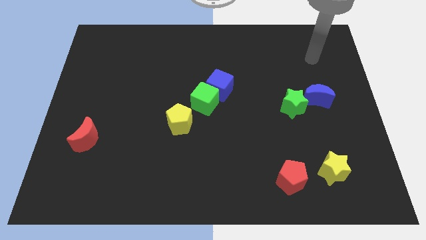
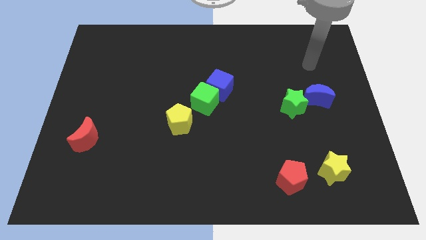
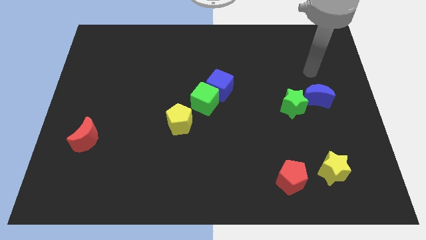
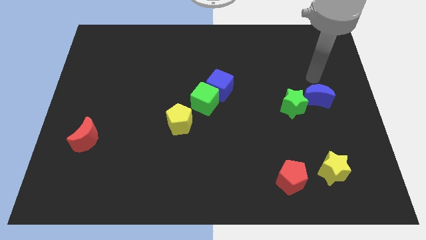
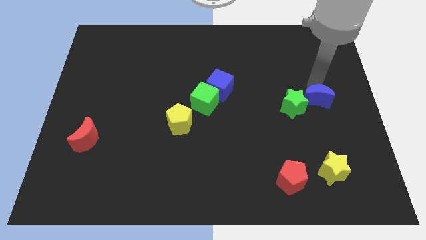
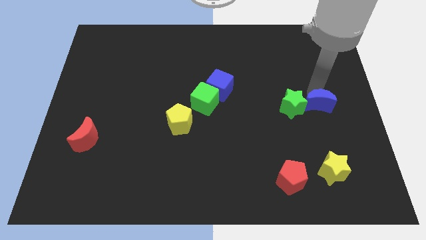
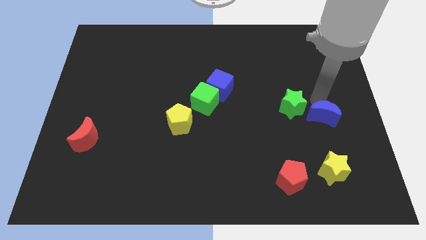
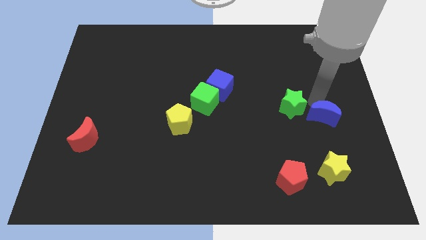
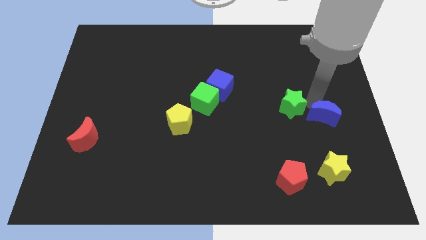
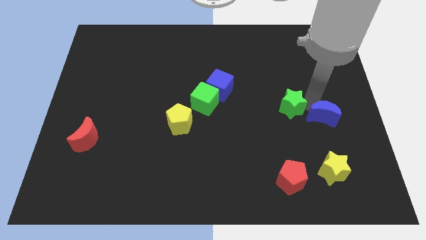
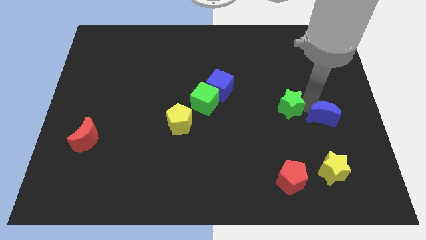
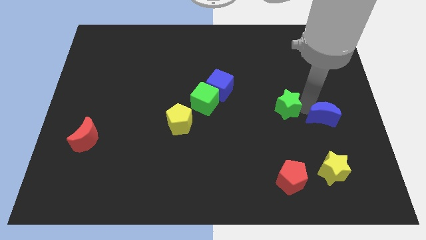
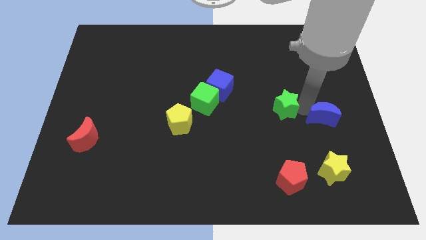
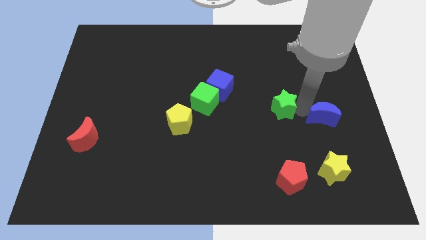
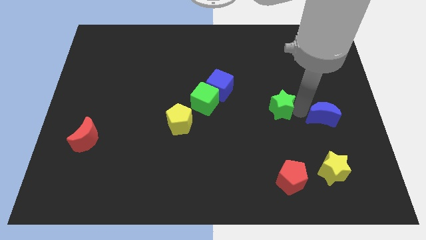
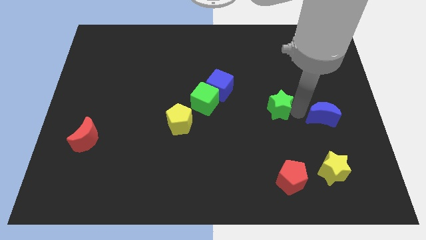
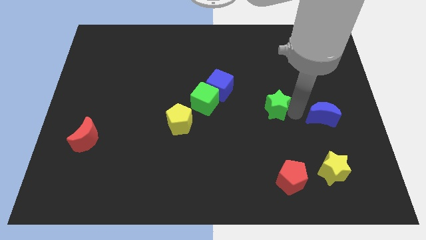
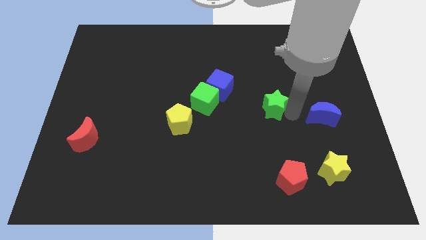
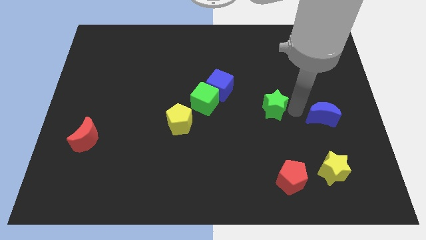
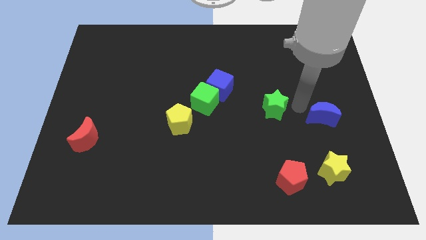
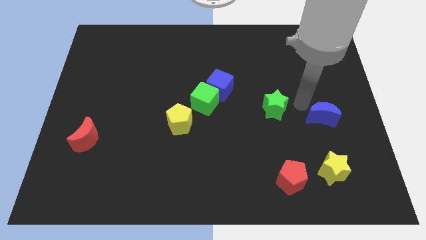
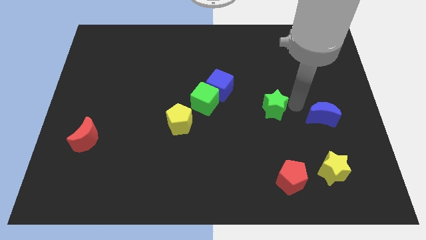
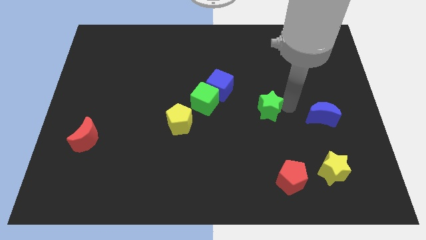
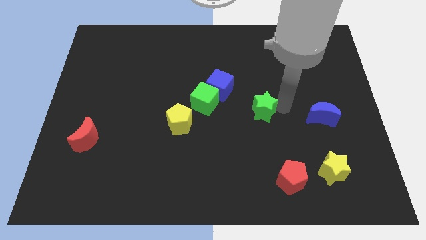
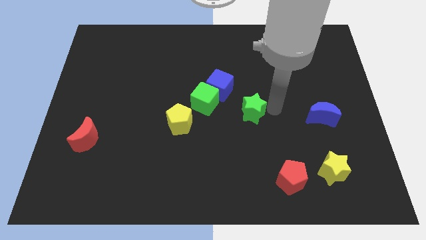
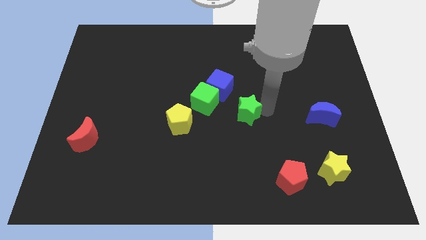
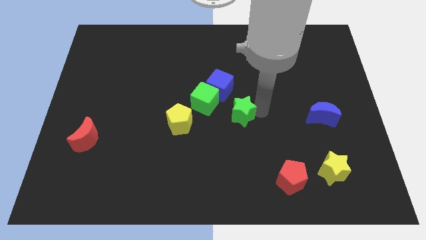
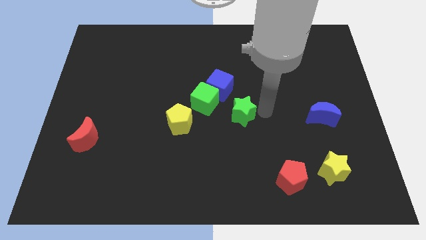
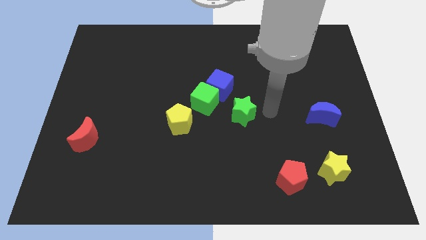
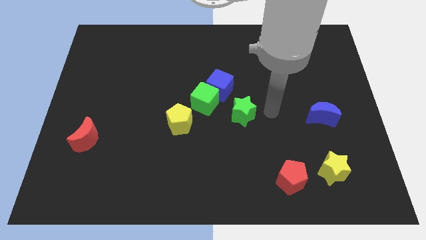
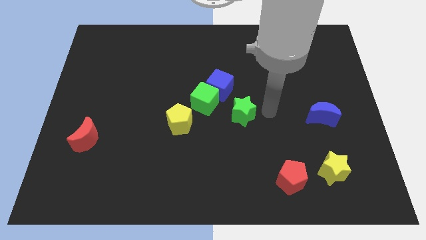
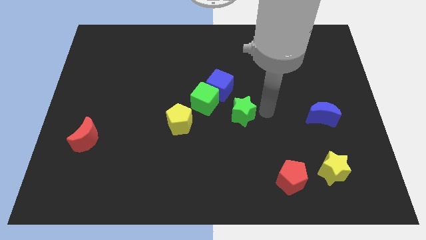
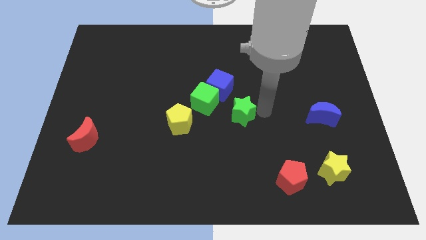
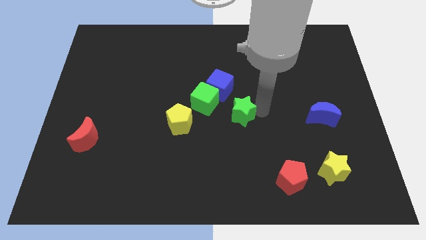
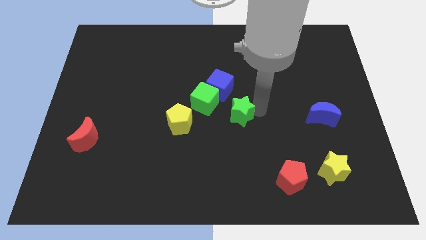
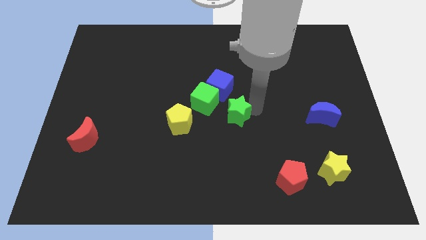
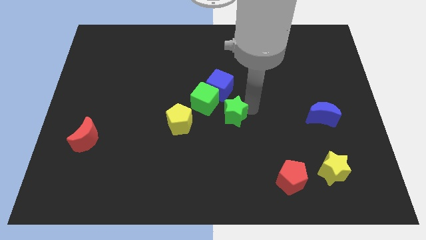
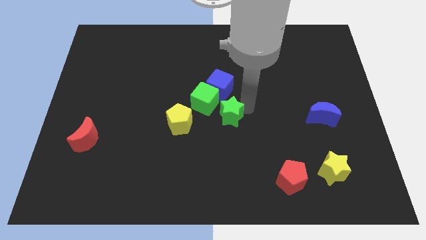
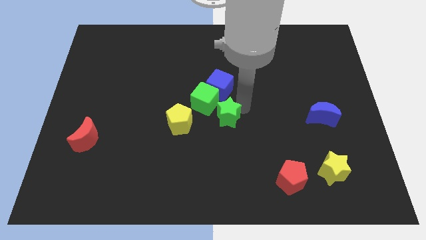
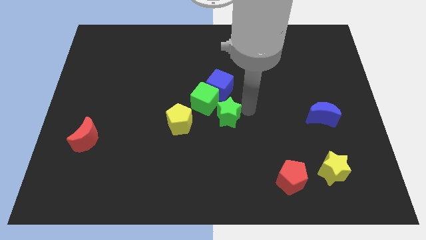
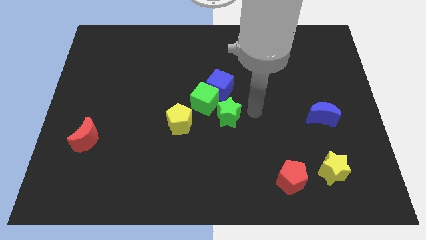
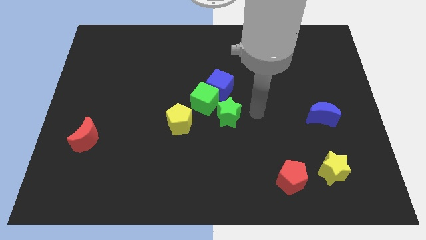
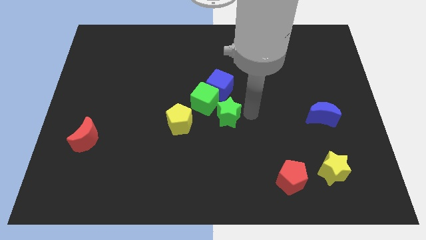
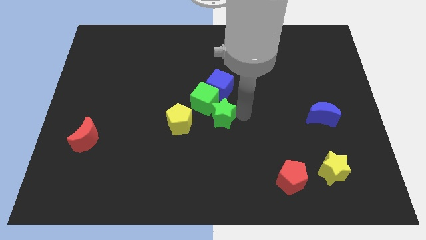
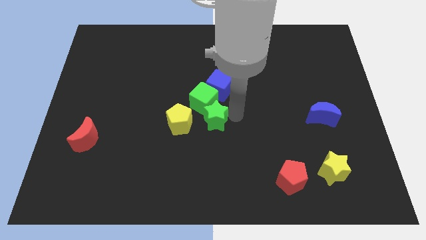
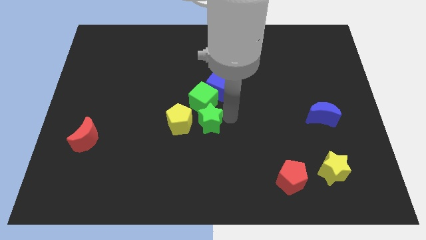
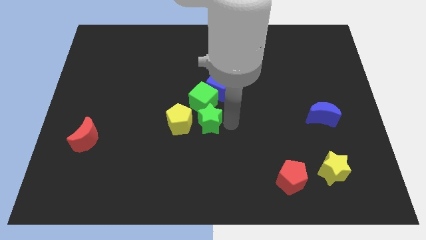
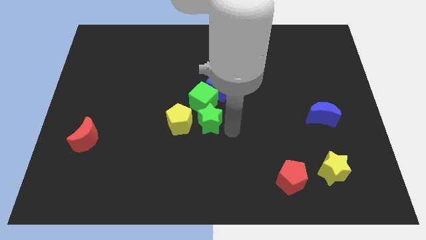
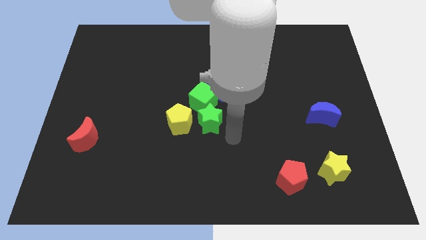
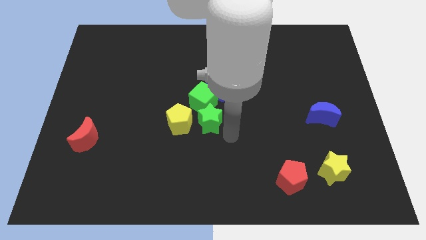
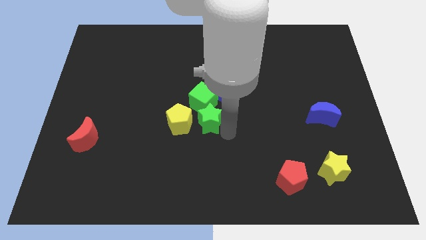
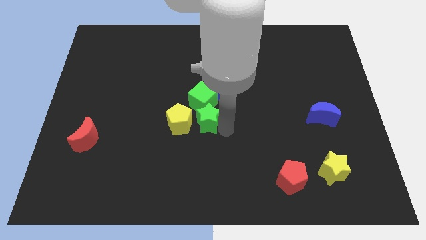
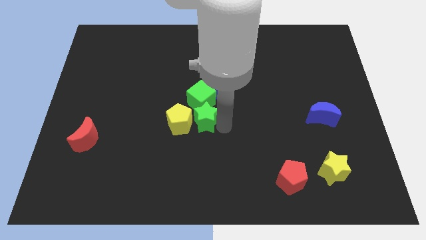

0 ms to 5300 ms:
move the green star left

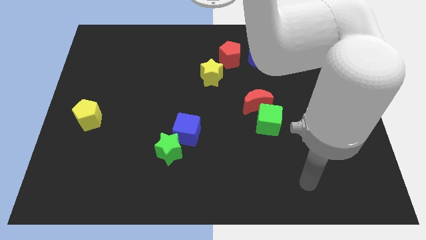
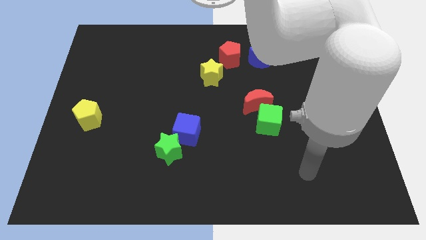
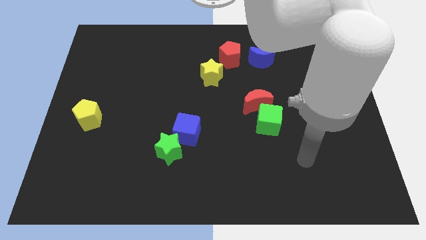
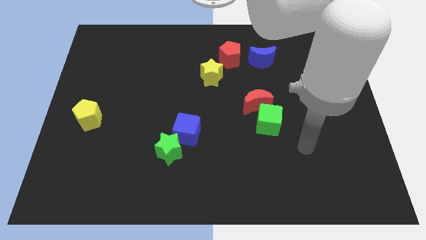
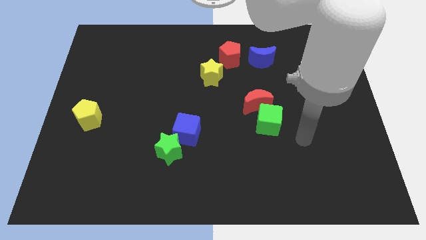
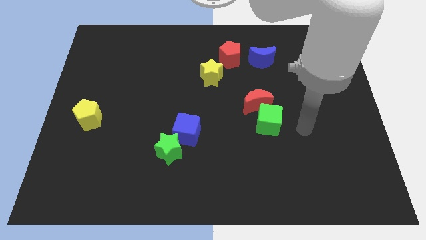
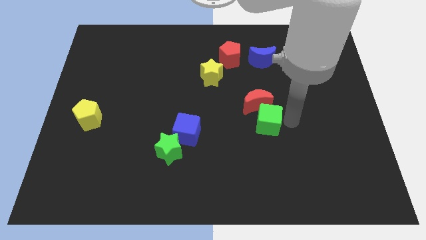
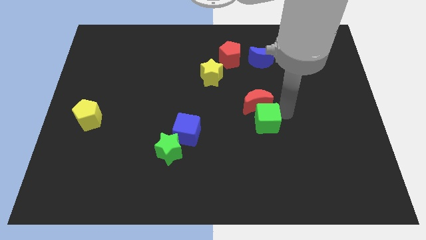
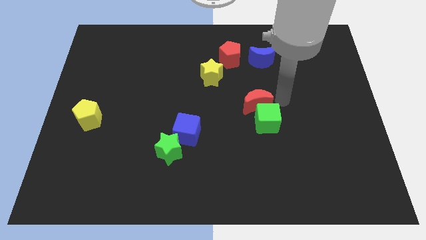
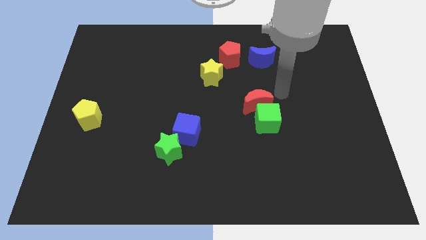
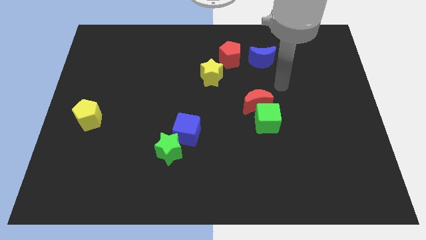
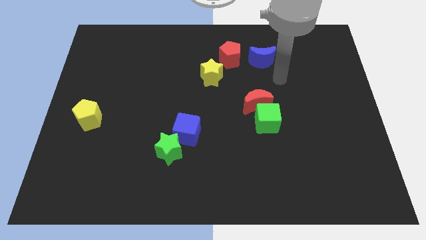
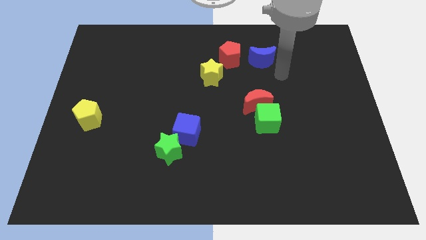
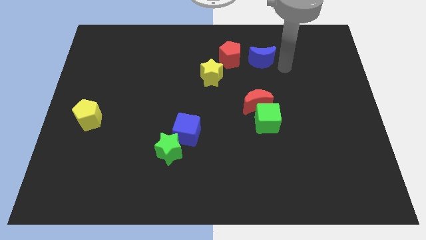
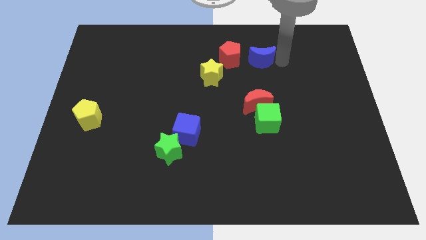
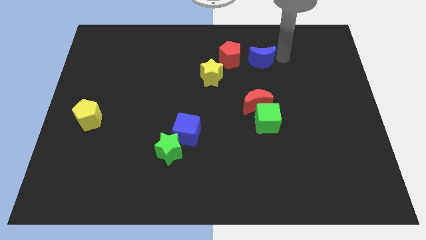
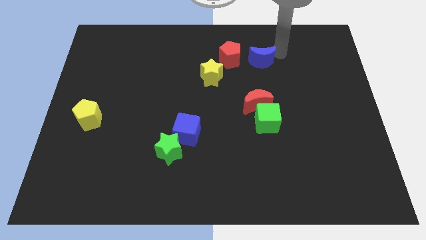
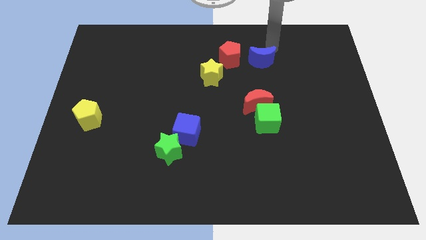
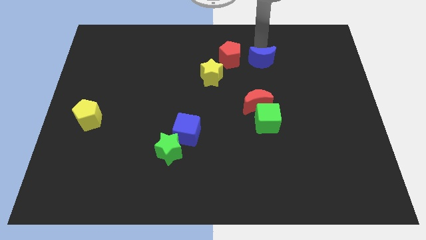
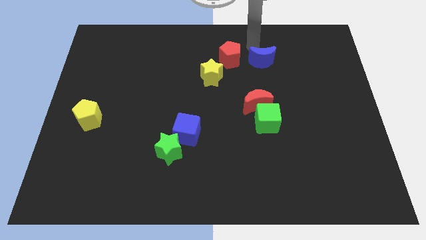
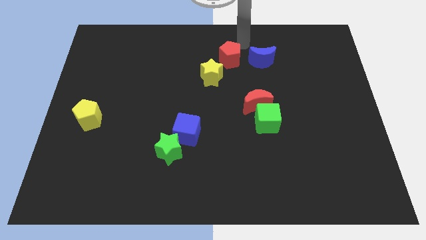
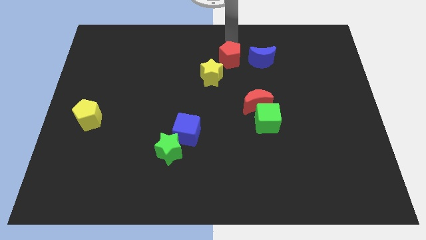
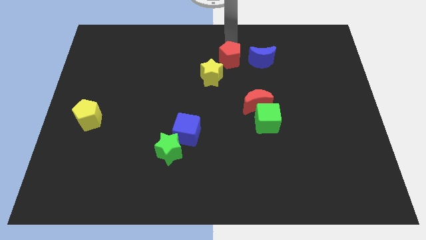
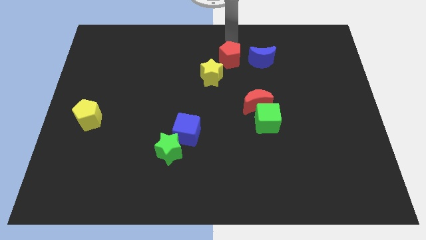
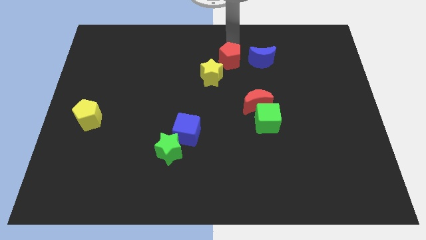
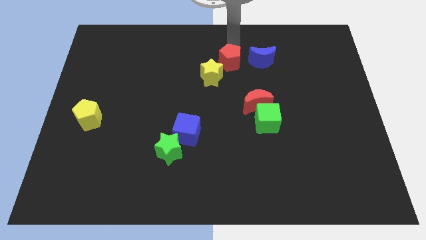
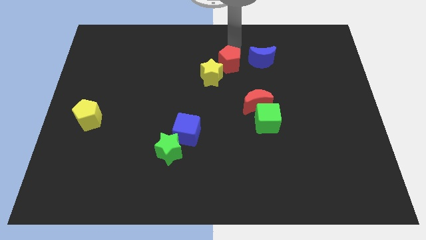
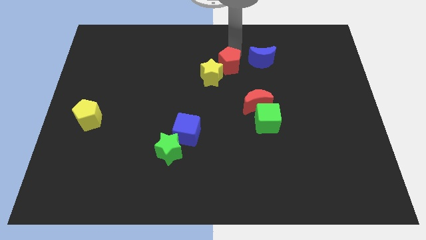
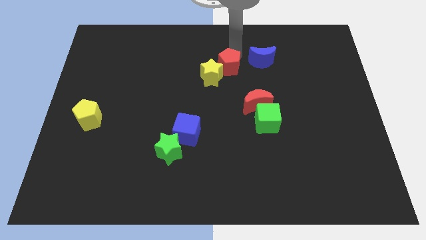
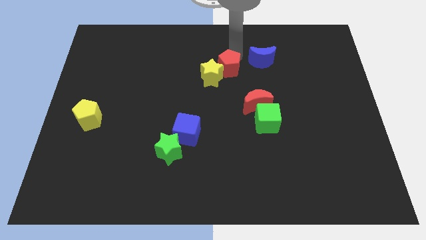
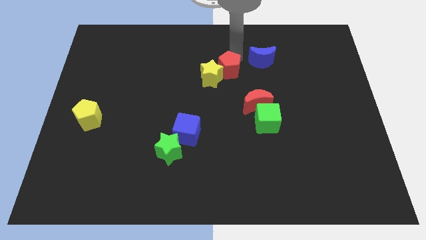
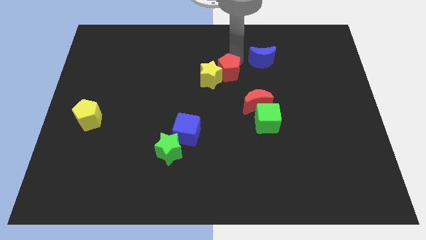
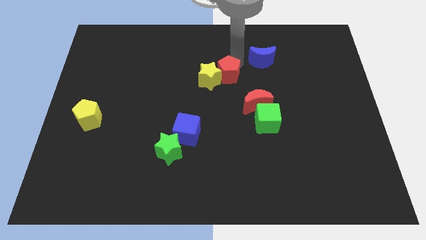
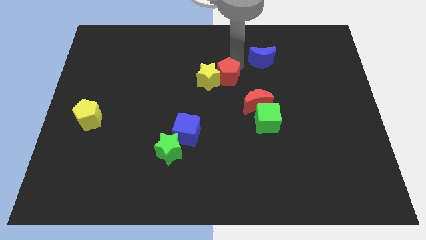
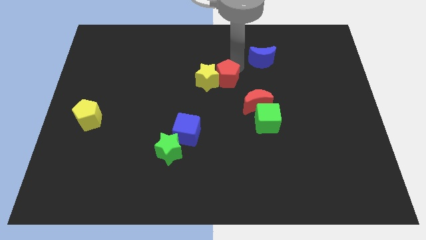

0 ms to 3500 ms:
move the red pentagon a little downwards
